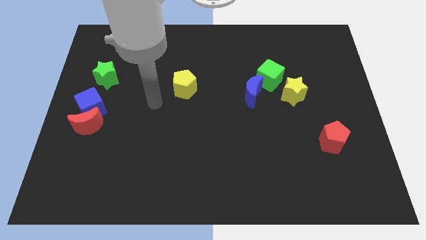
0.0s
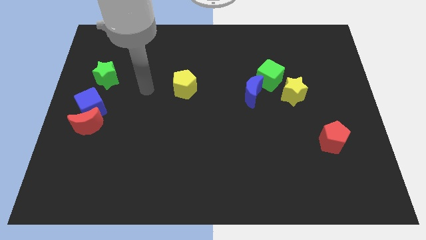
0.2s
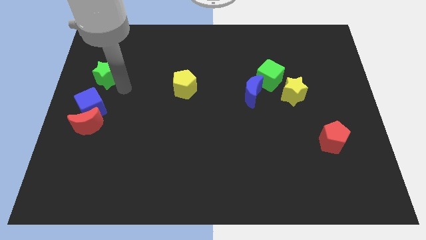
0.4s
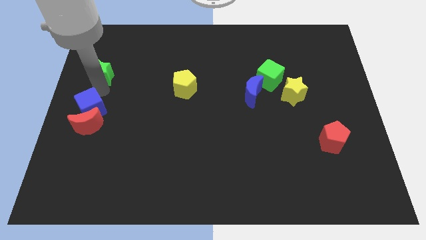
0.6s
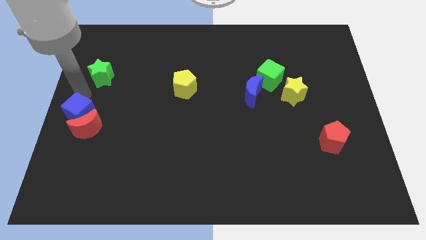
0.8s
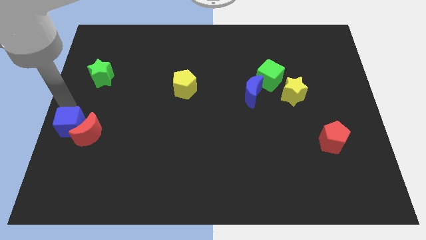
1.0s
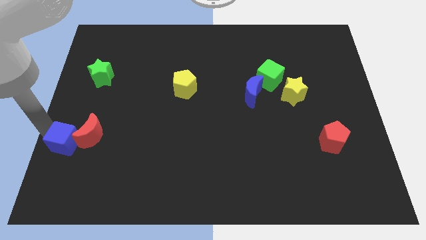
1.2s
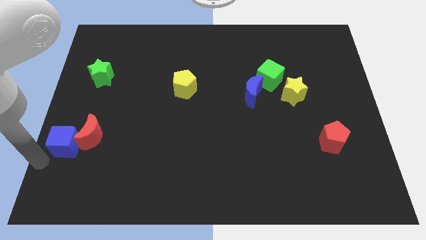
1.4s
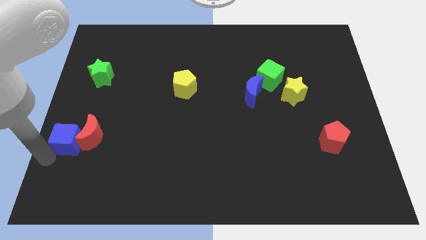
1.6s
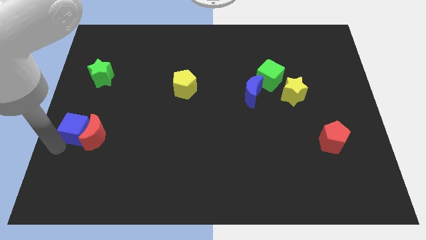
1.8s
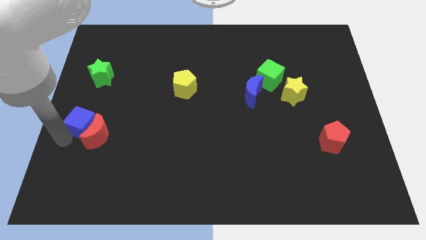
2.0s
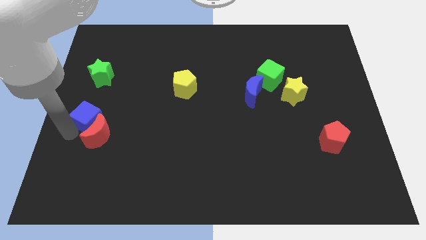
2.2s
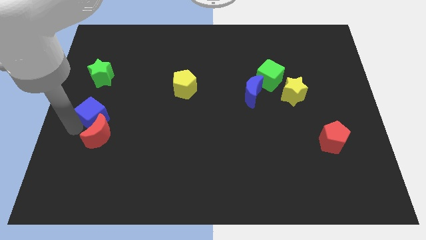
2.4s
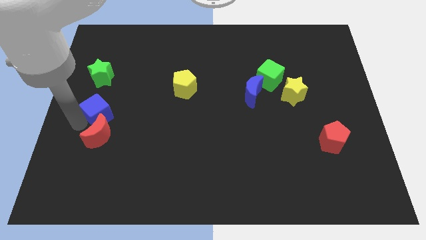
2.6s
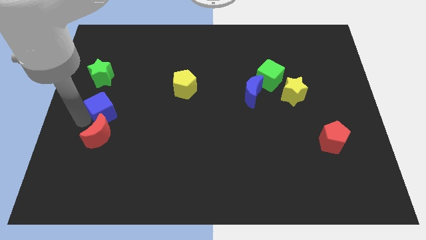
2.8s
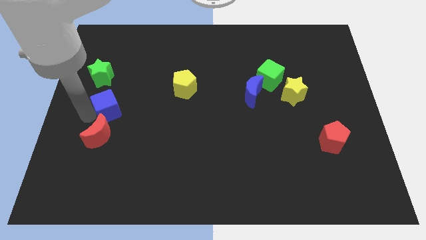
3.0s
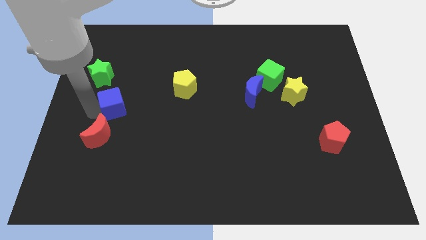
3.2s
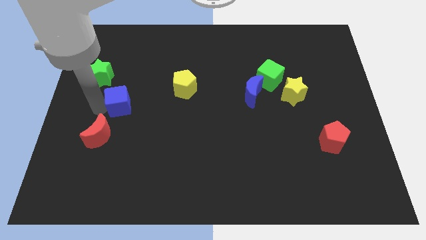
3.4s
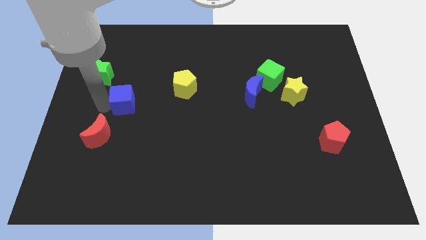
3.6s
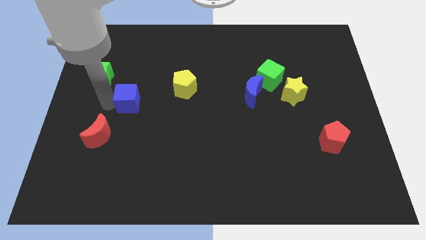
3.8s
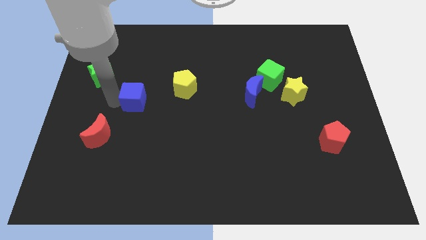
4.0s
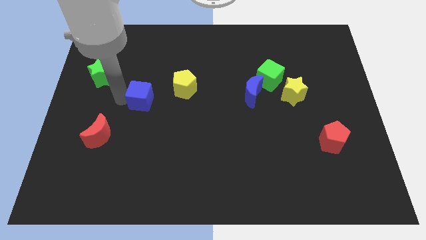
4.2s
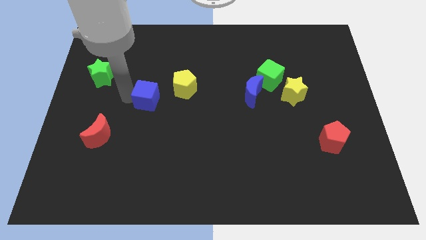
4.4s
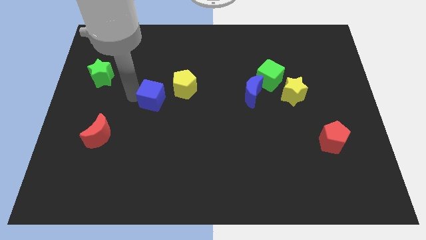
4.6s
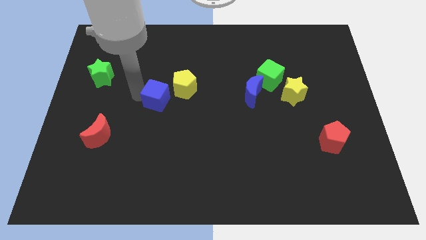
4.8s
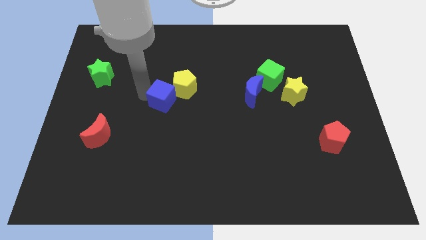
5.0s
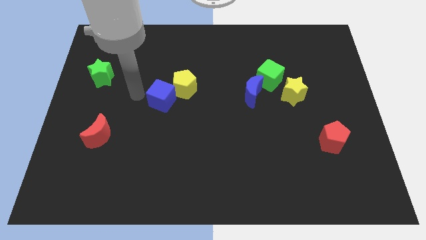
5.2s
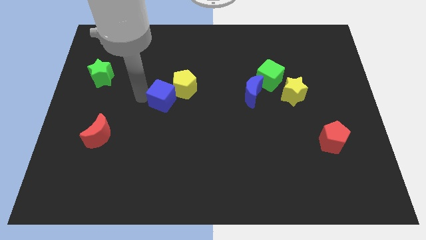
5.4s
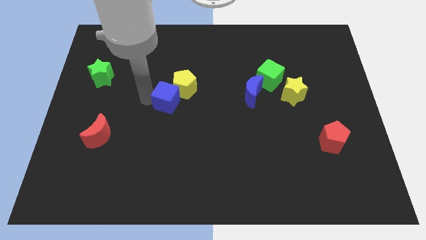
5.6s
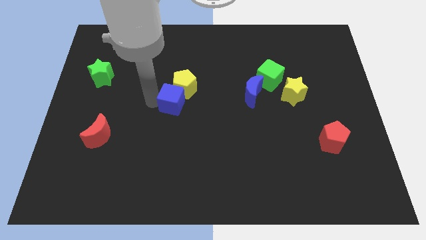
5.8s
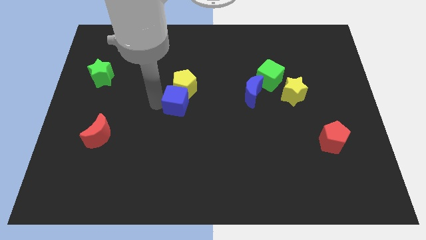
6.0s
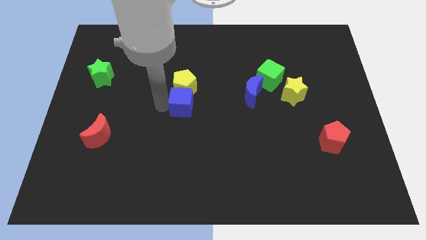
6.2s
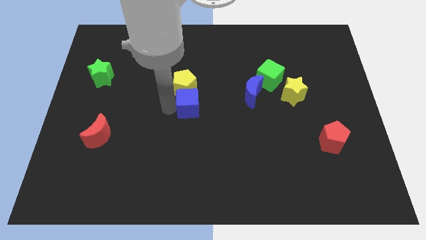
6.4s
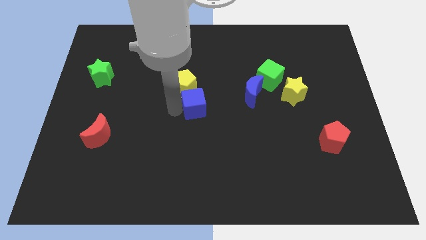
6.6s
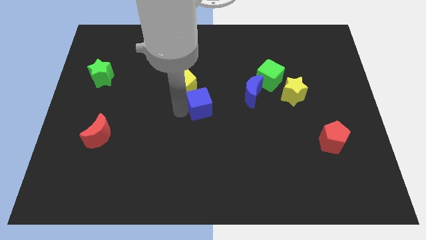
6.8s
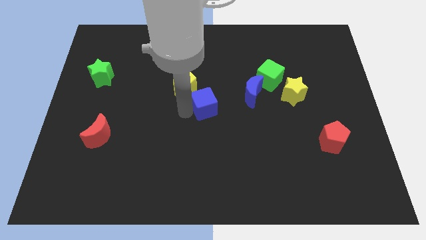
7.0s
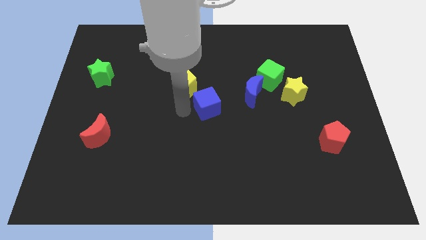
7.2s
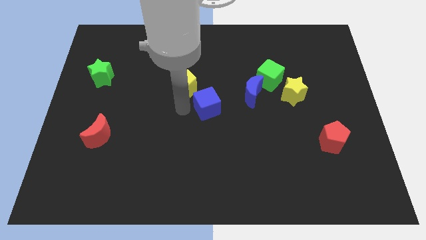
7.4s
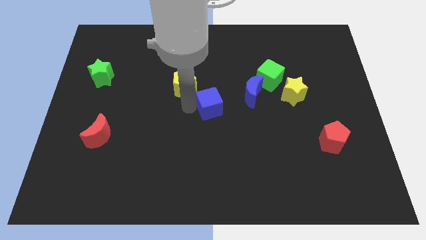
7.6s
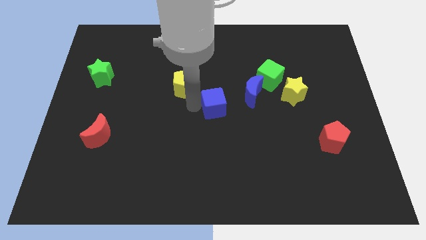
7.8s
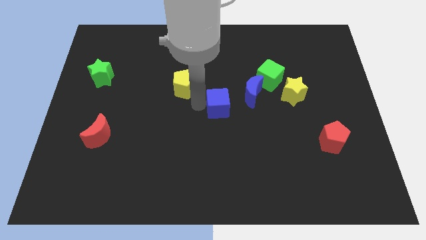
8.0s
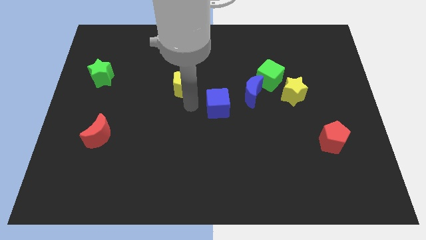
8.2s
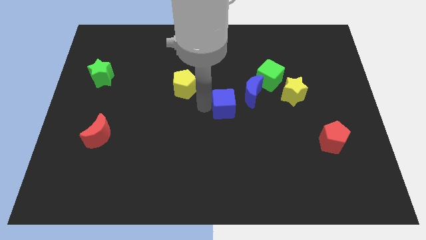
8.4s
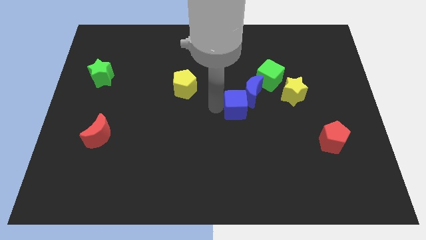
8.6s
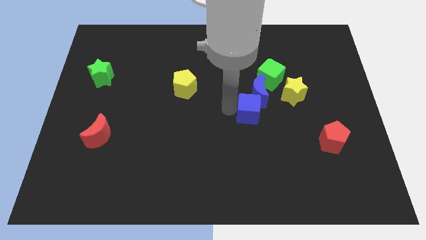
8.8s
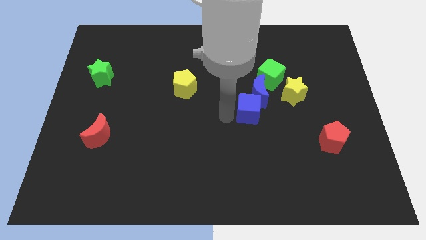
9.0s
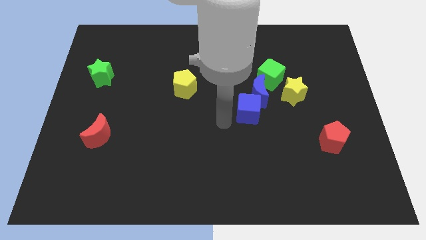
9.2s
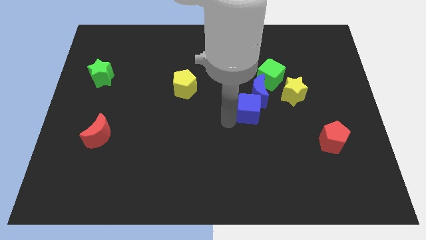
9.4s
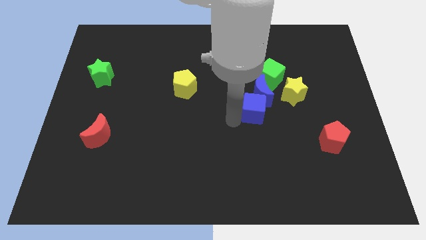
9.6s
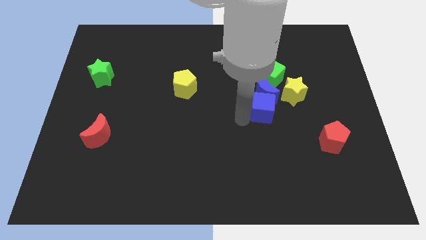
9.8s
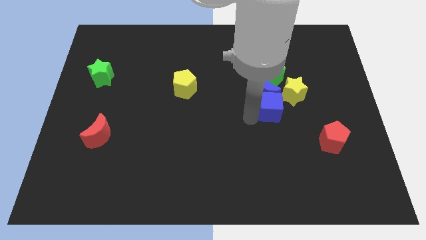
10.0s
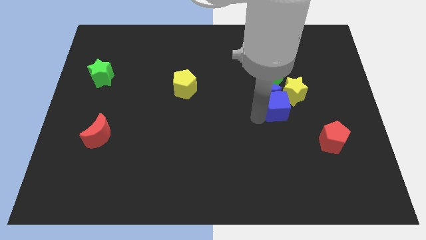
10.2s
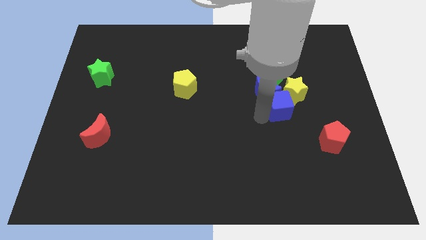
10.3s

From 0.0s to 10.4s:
slide the blue cube to the yellow star

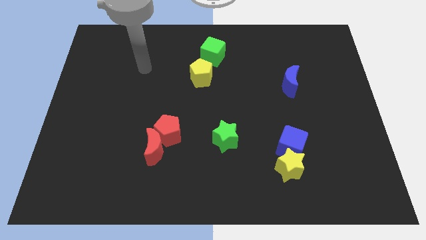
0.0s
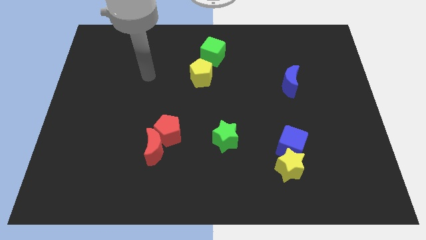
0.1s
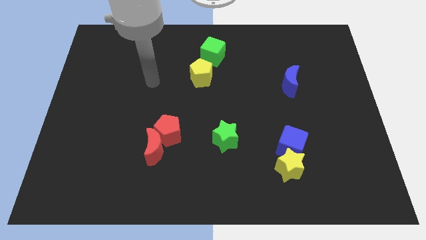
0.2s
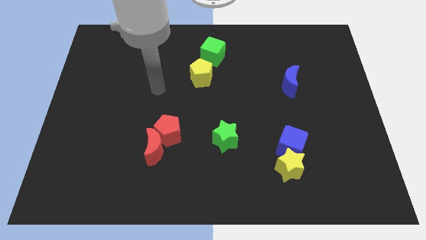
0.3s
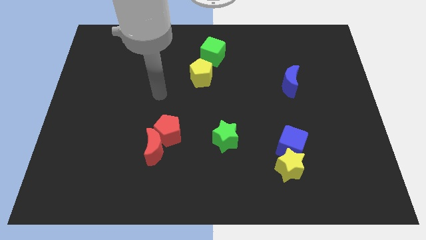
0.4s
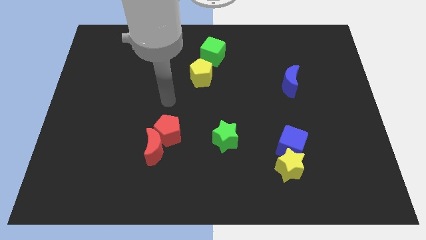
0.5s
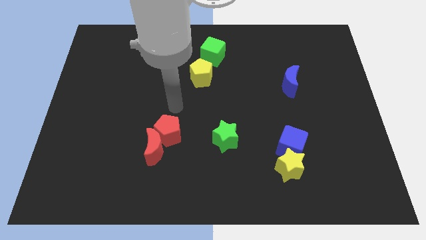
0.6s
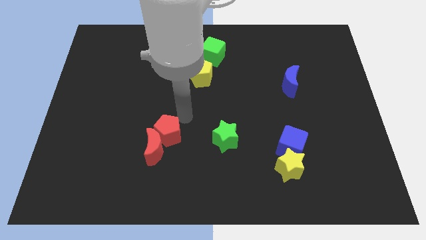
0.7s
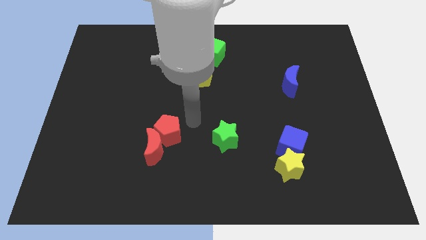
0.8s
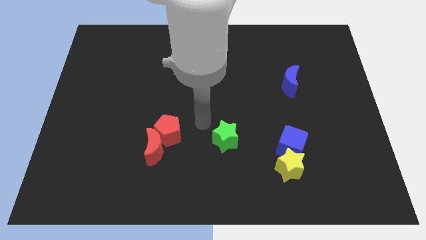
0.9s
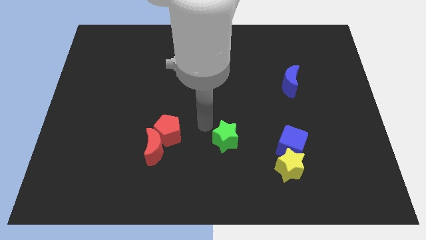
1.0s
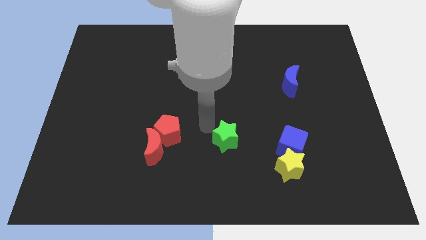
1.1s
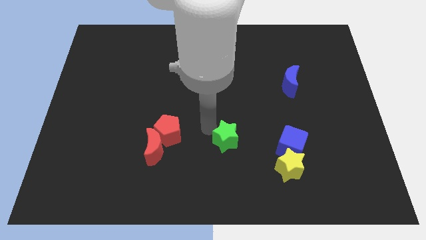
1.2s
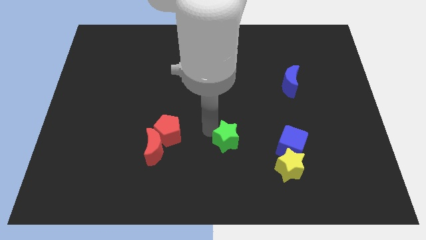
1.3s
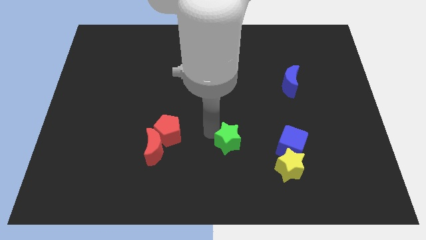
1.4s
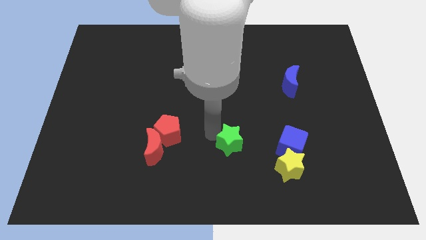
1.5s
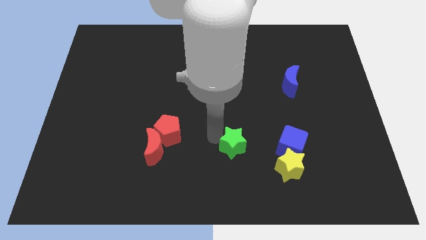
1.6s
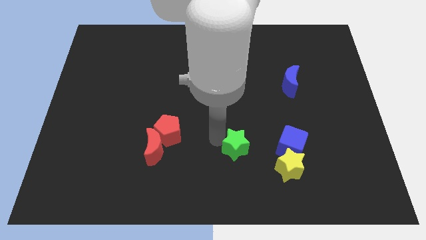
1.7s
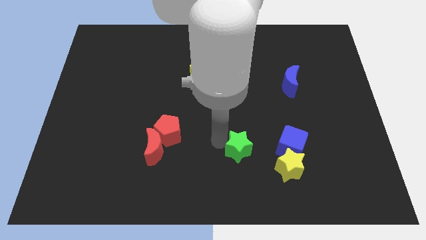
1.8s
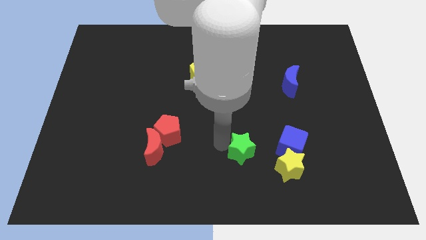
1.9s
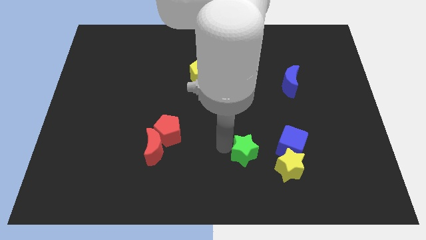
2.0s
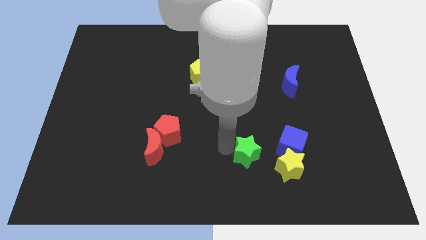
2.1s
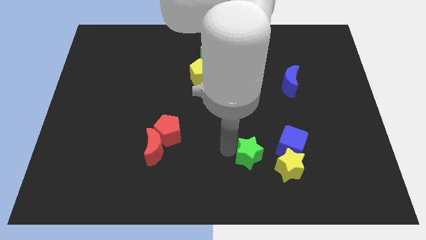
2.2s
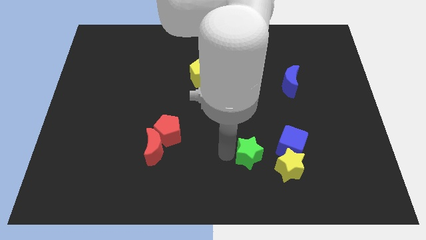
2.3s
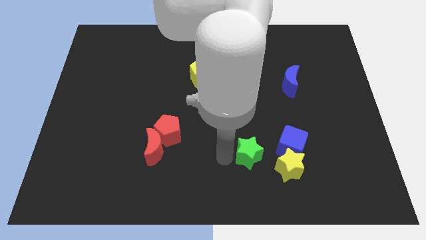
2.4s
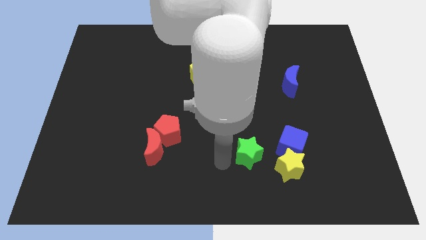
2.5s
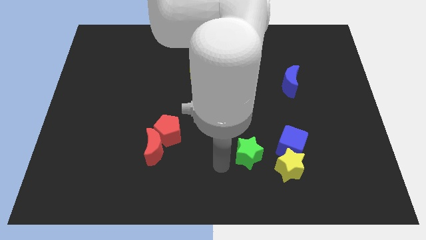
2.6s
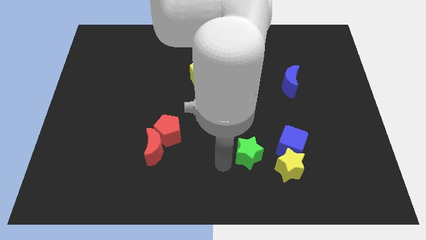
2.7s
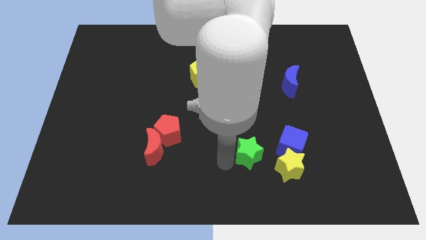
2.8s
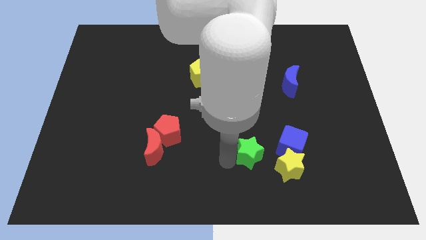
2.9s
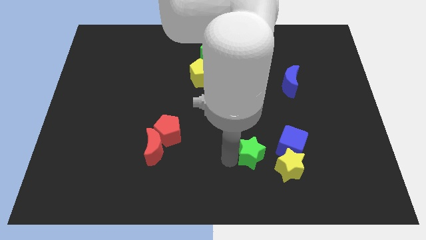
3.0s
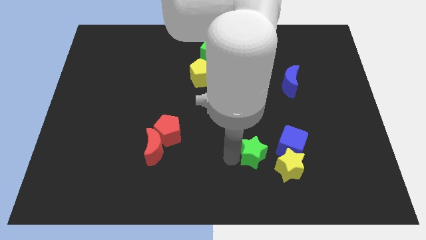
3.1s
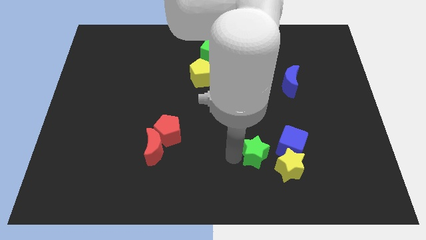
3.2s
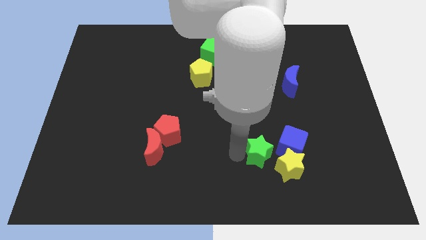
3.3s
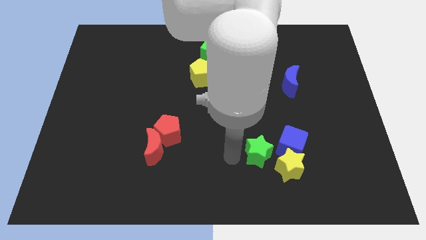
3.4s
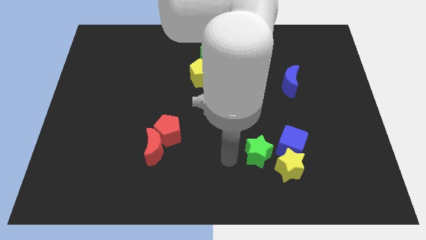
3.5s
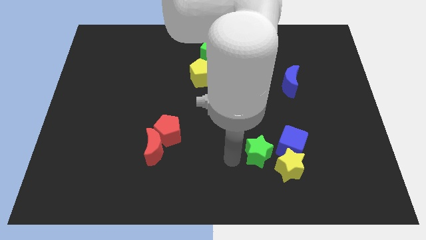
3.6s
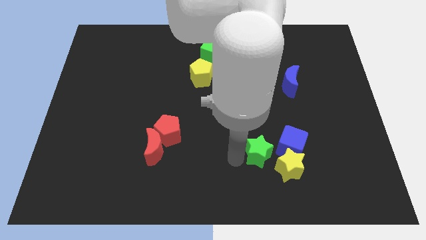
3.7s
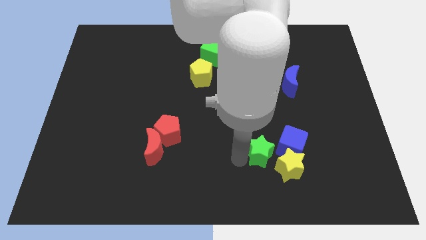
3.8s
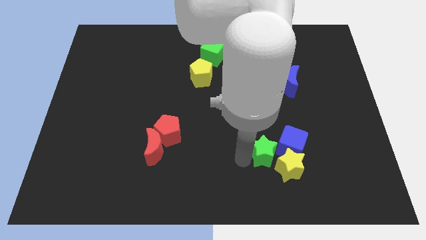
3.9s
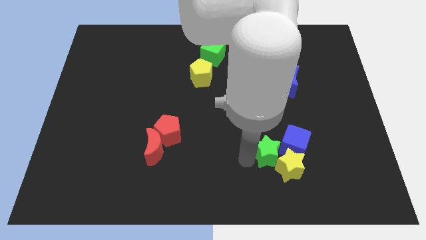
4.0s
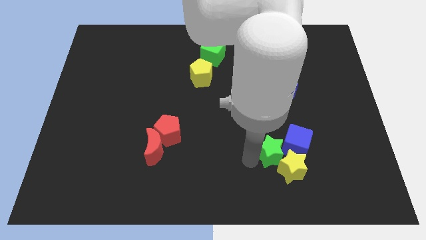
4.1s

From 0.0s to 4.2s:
move the green star towards the blue cube
